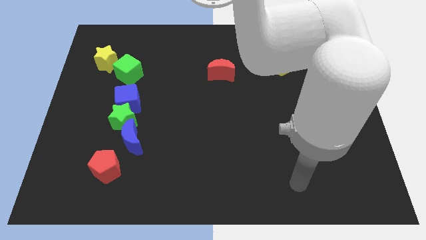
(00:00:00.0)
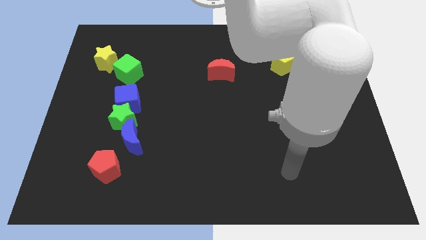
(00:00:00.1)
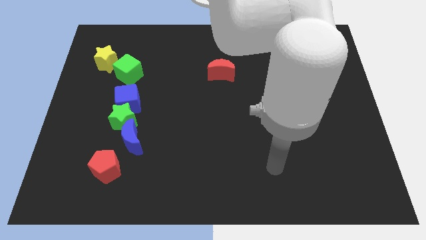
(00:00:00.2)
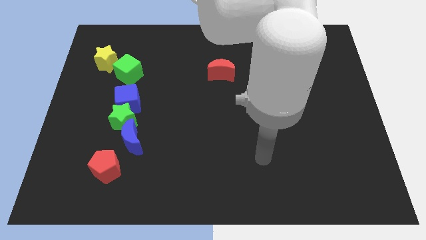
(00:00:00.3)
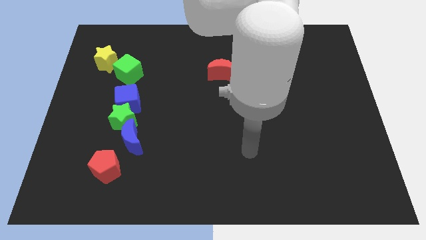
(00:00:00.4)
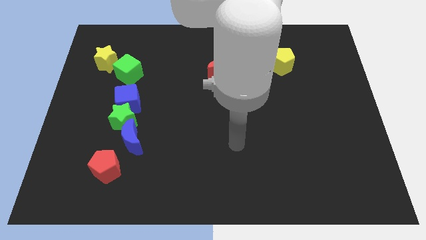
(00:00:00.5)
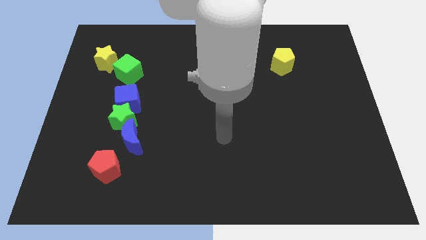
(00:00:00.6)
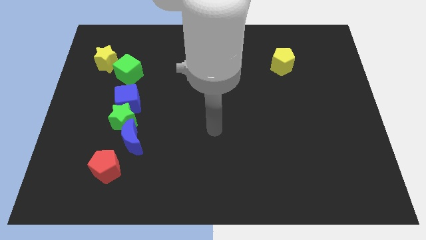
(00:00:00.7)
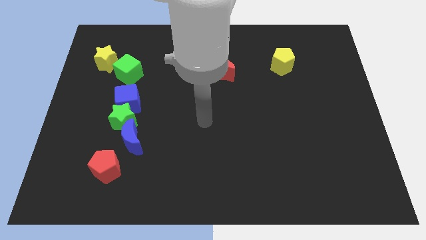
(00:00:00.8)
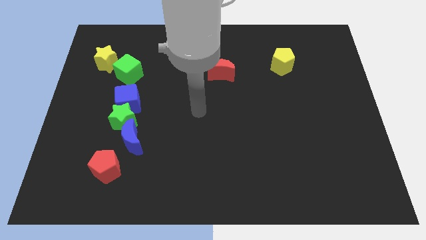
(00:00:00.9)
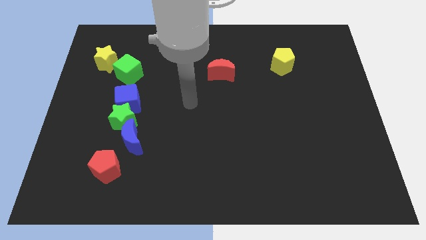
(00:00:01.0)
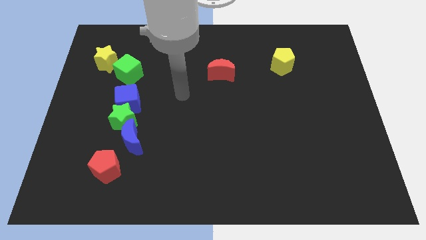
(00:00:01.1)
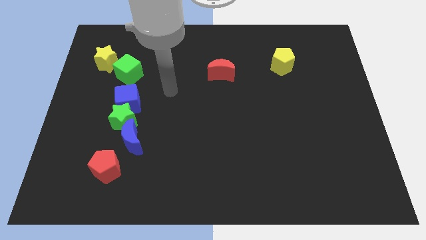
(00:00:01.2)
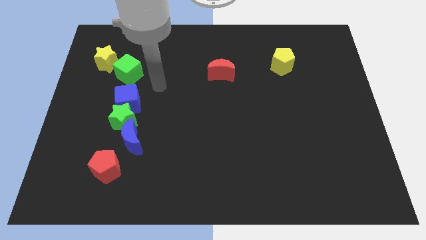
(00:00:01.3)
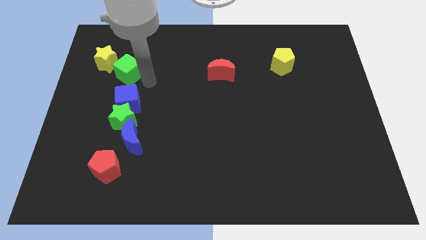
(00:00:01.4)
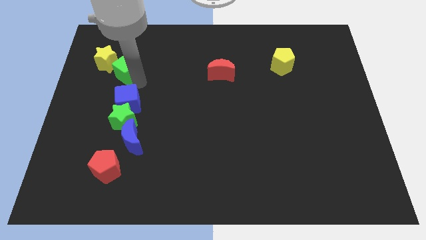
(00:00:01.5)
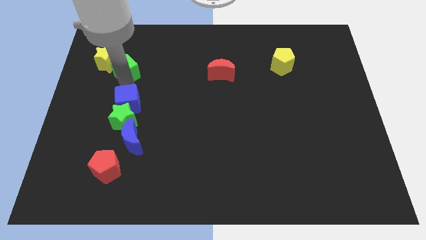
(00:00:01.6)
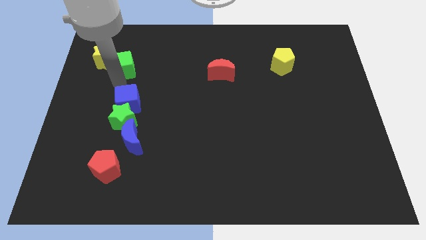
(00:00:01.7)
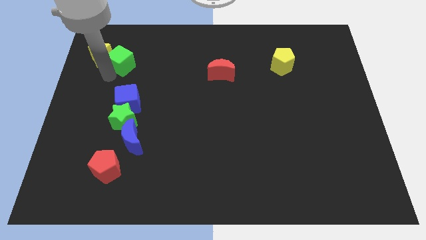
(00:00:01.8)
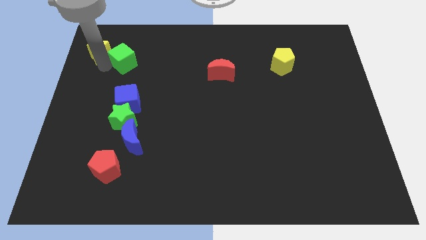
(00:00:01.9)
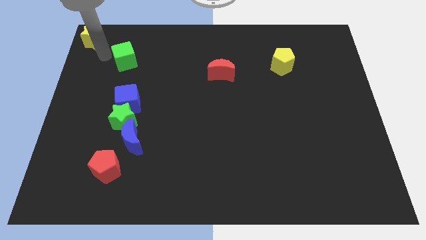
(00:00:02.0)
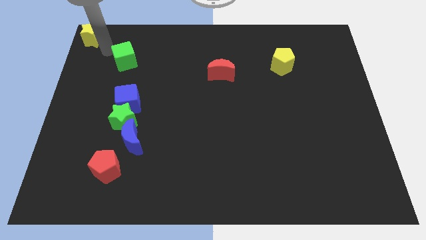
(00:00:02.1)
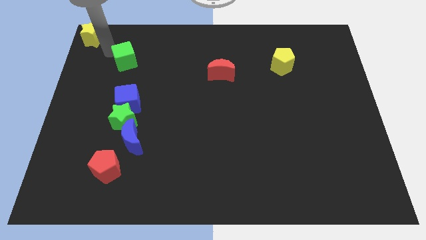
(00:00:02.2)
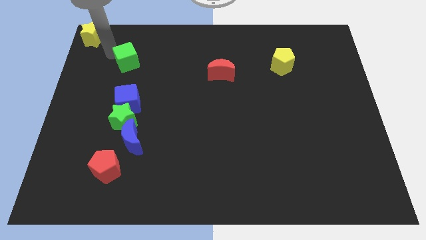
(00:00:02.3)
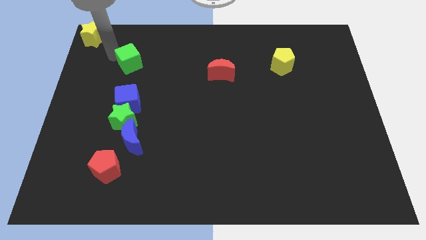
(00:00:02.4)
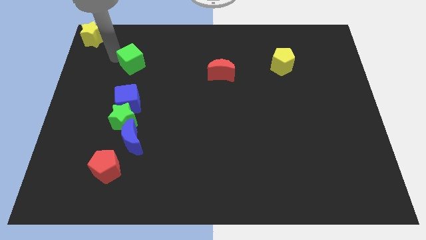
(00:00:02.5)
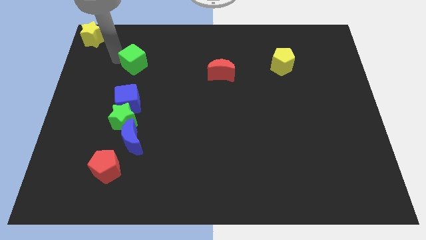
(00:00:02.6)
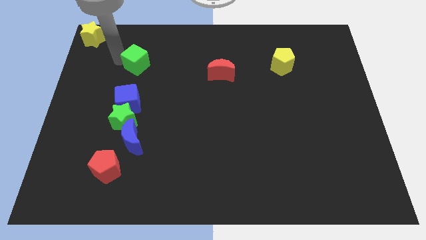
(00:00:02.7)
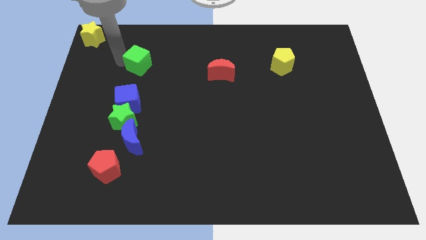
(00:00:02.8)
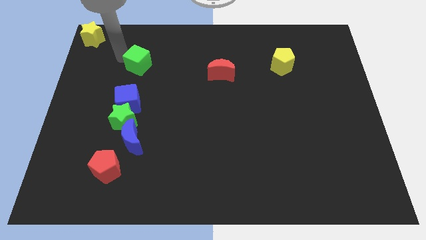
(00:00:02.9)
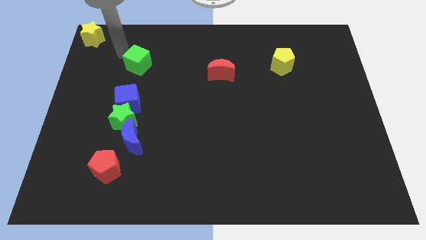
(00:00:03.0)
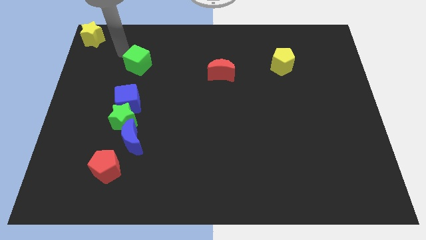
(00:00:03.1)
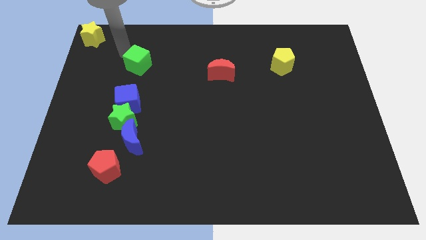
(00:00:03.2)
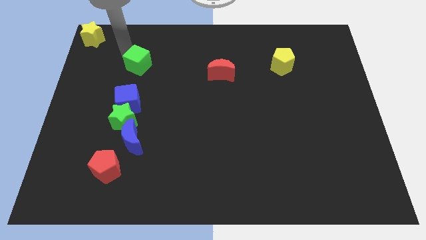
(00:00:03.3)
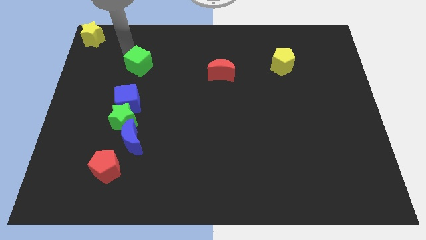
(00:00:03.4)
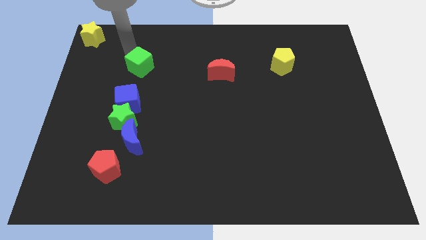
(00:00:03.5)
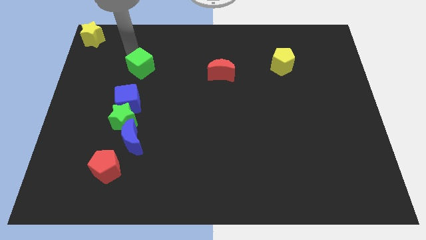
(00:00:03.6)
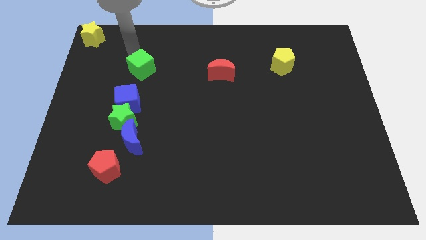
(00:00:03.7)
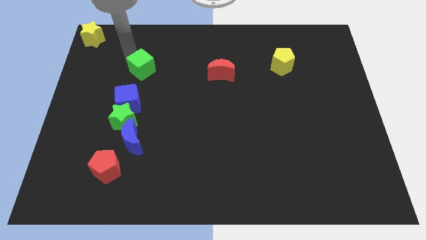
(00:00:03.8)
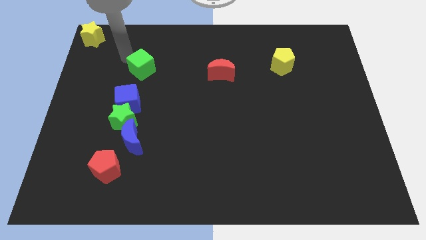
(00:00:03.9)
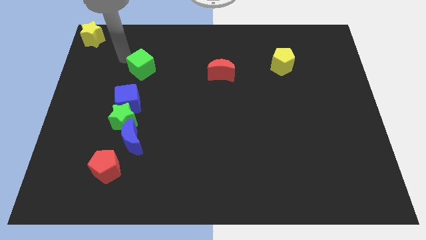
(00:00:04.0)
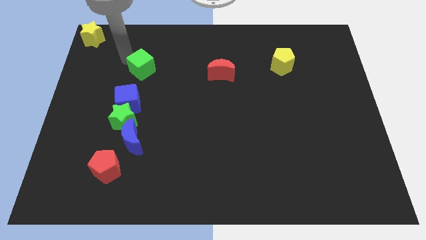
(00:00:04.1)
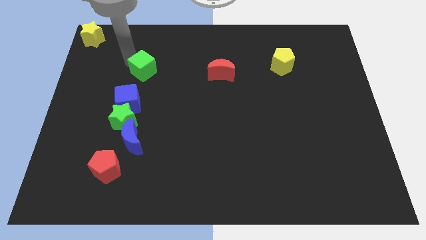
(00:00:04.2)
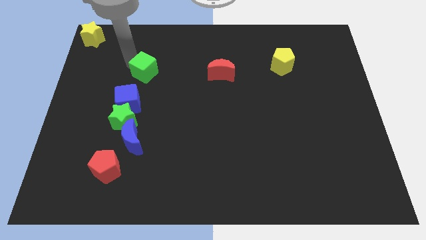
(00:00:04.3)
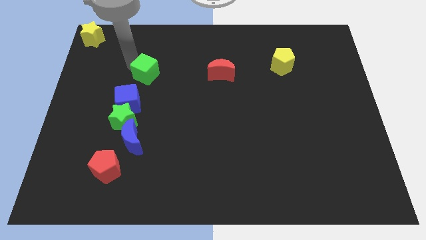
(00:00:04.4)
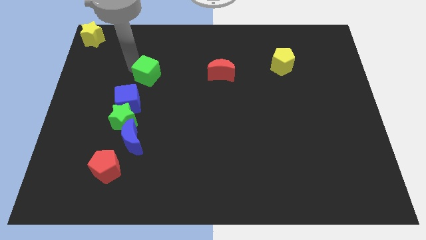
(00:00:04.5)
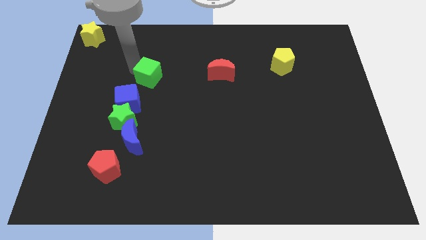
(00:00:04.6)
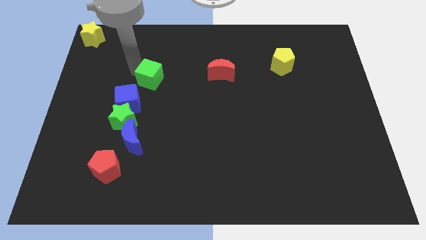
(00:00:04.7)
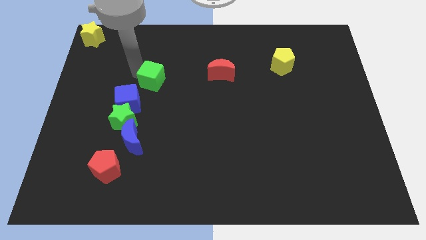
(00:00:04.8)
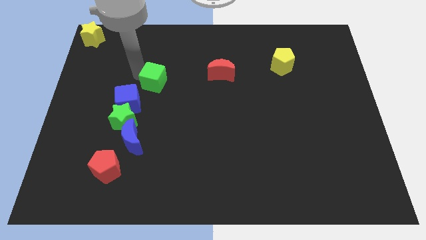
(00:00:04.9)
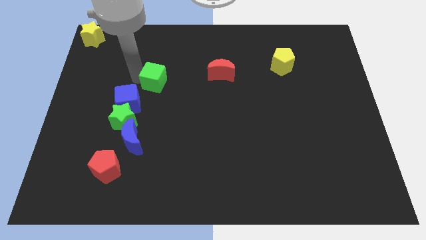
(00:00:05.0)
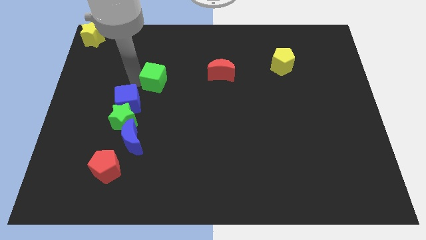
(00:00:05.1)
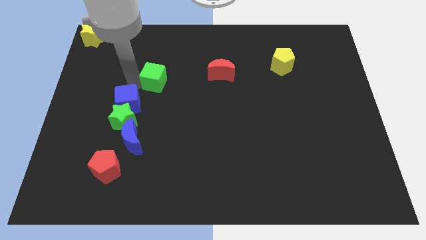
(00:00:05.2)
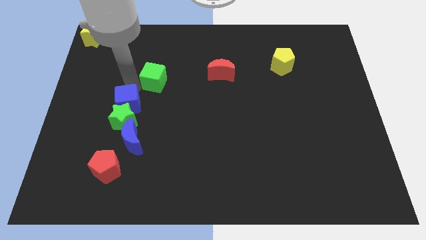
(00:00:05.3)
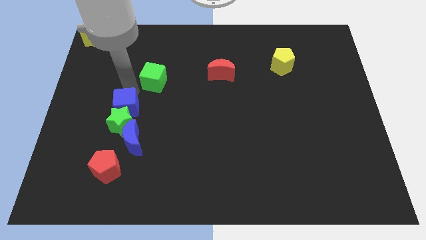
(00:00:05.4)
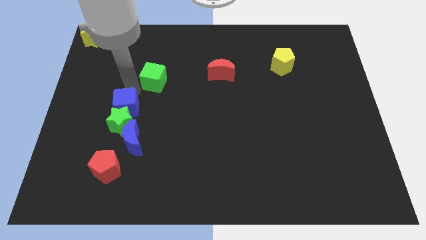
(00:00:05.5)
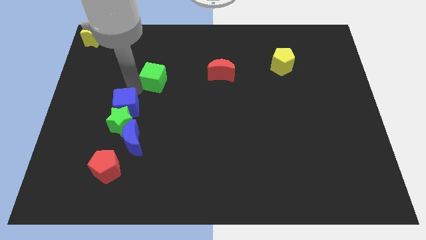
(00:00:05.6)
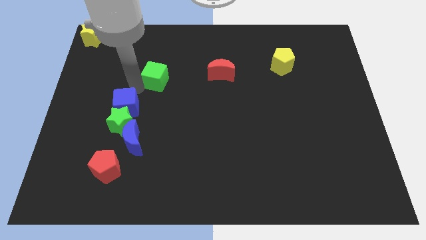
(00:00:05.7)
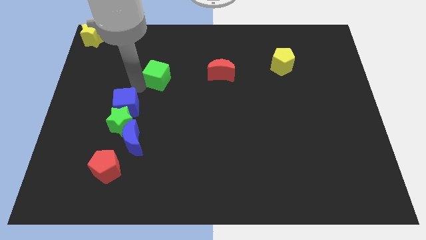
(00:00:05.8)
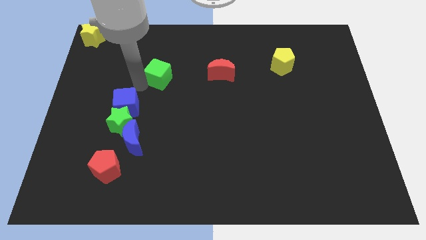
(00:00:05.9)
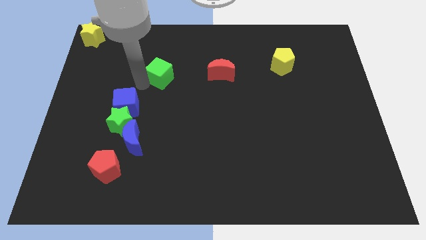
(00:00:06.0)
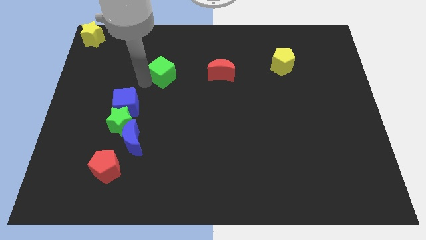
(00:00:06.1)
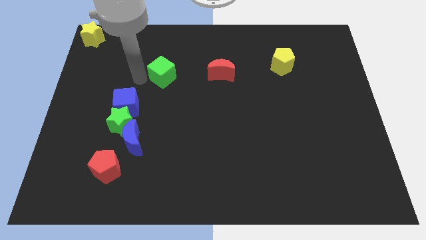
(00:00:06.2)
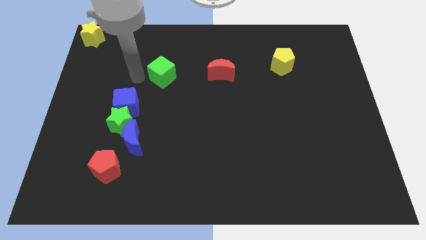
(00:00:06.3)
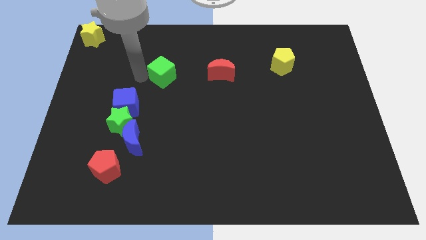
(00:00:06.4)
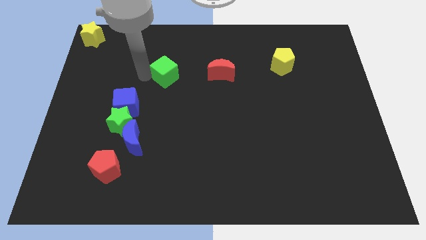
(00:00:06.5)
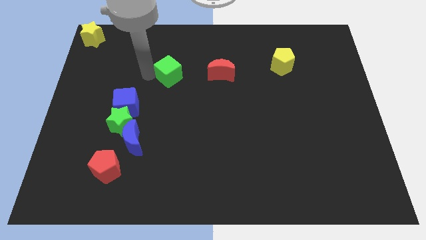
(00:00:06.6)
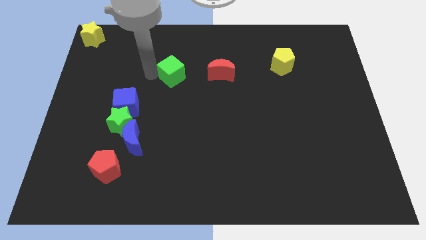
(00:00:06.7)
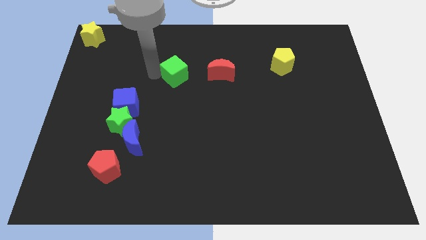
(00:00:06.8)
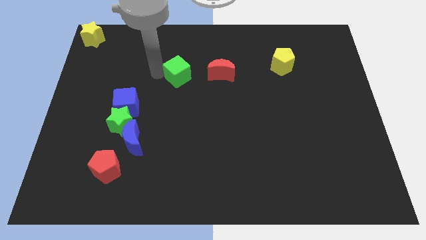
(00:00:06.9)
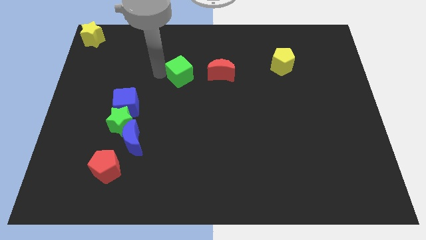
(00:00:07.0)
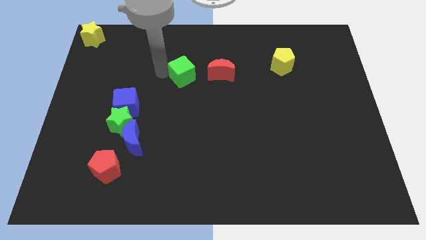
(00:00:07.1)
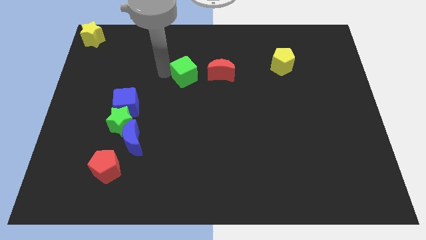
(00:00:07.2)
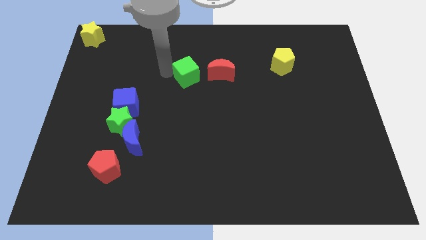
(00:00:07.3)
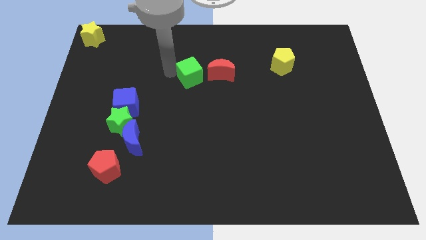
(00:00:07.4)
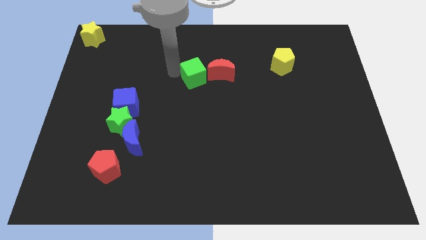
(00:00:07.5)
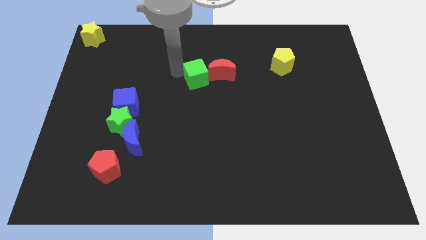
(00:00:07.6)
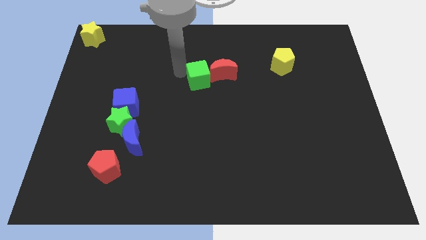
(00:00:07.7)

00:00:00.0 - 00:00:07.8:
put the green cube towards the red moon
